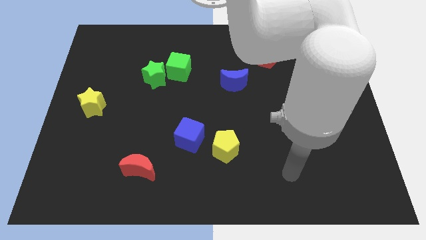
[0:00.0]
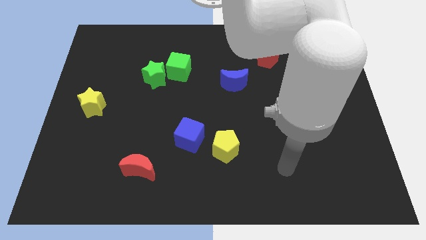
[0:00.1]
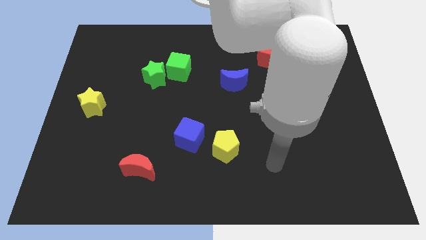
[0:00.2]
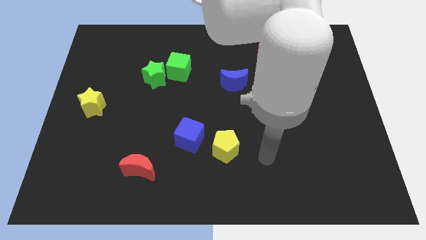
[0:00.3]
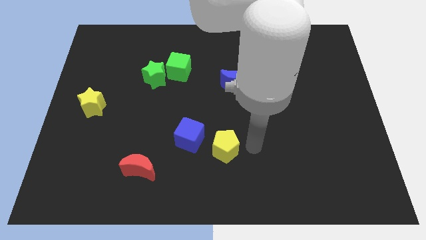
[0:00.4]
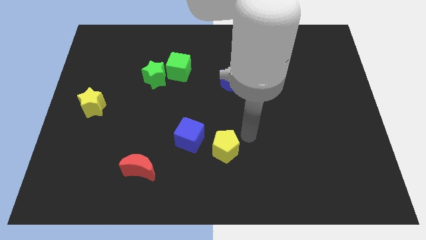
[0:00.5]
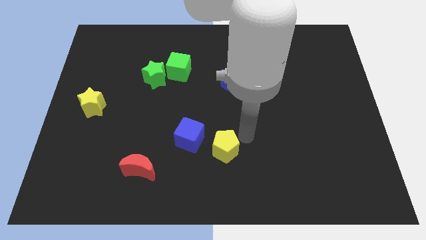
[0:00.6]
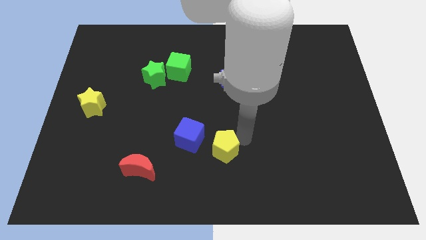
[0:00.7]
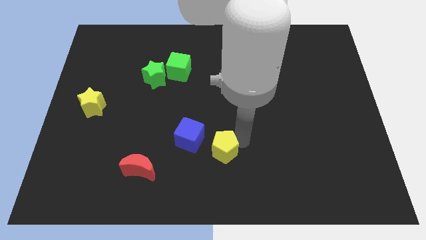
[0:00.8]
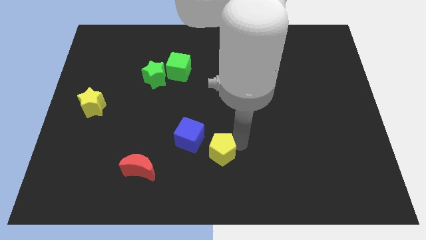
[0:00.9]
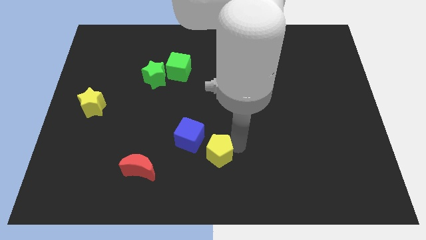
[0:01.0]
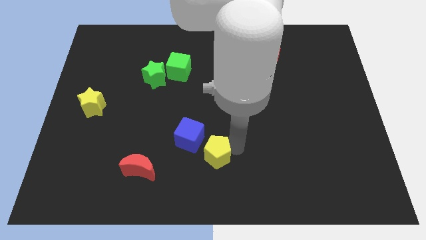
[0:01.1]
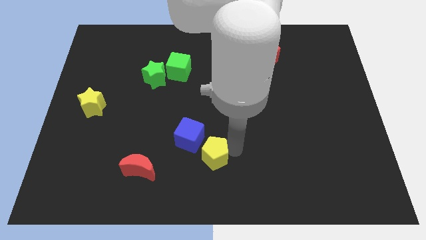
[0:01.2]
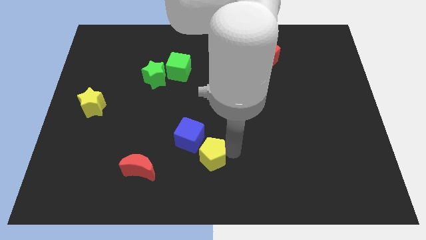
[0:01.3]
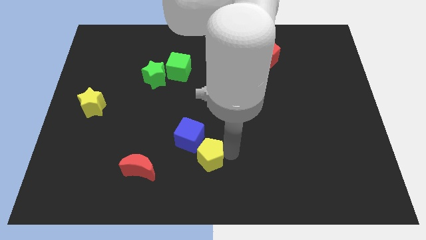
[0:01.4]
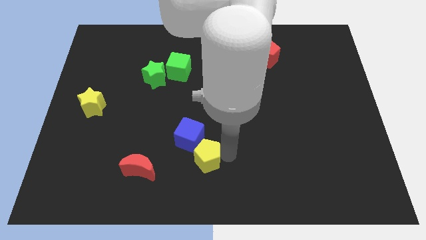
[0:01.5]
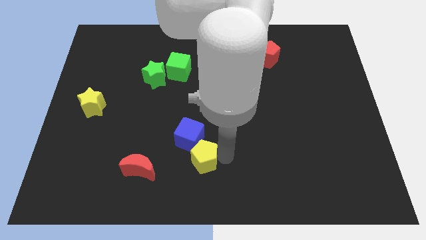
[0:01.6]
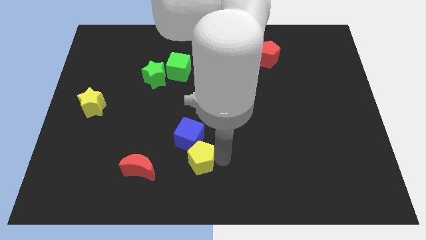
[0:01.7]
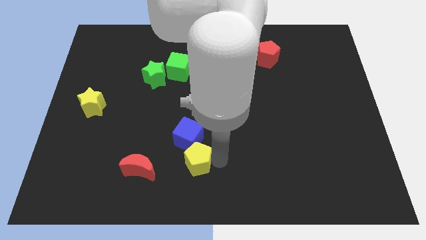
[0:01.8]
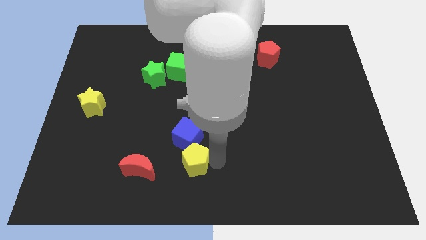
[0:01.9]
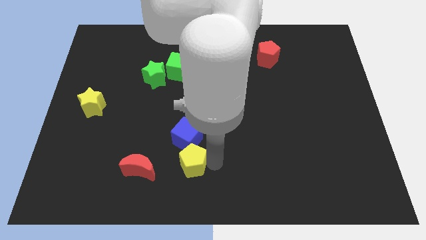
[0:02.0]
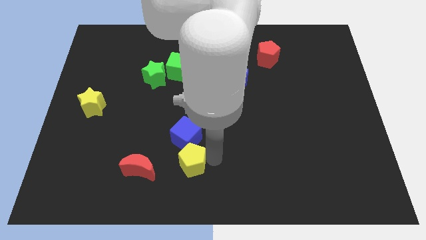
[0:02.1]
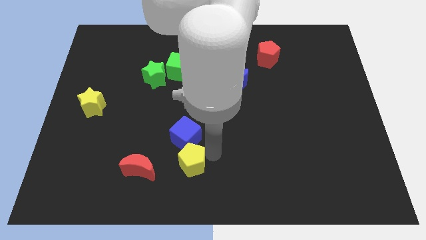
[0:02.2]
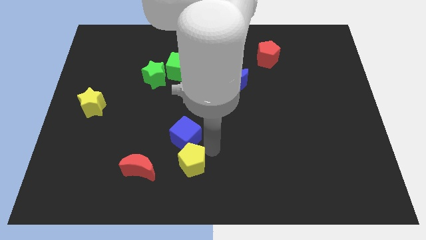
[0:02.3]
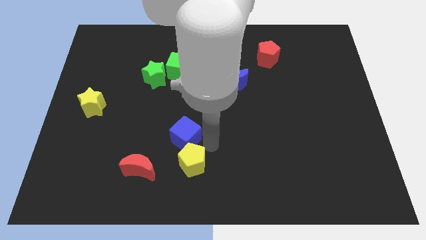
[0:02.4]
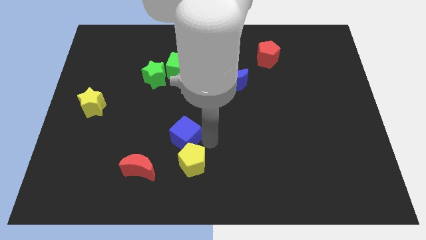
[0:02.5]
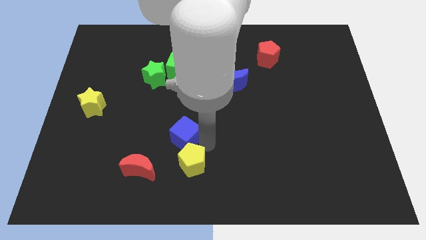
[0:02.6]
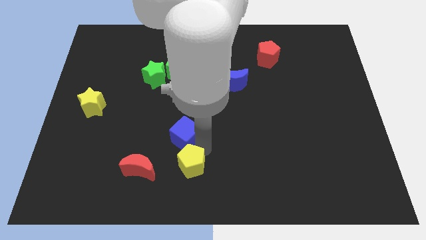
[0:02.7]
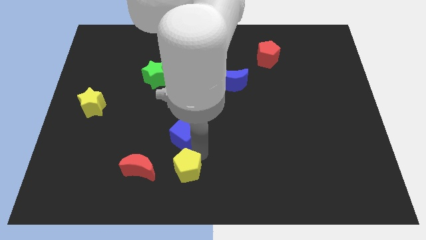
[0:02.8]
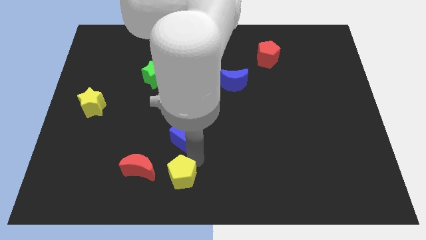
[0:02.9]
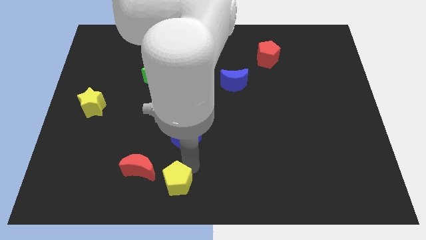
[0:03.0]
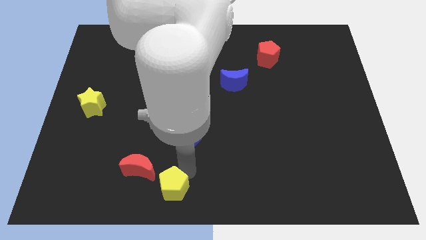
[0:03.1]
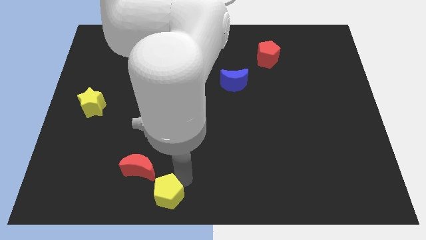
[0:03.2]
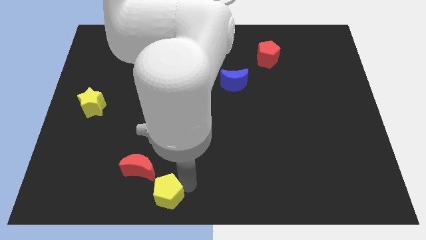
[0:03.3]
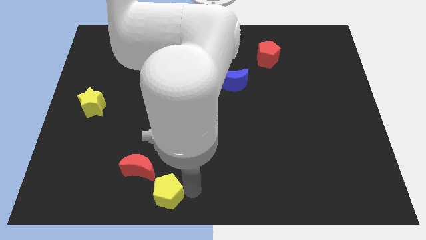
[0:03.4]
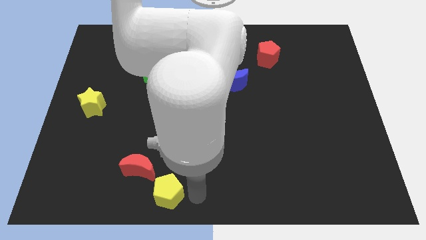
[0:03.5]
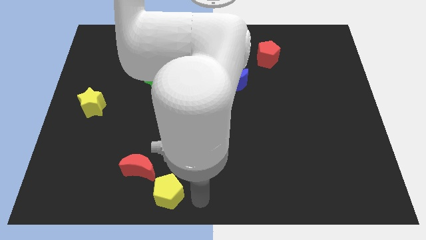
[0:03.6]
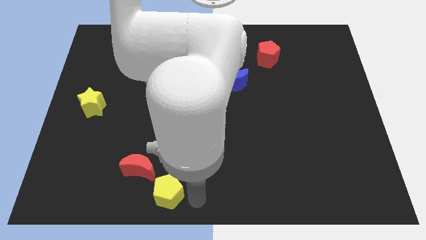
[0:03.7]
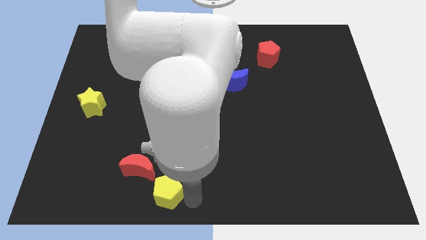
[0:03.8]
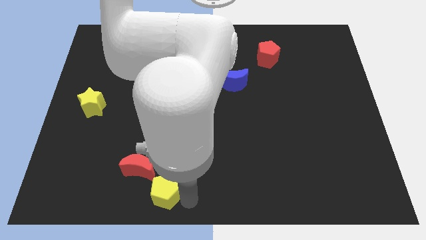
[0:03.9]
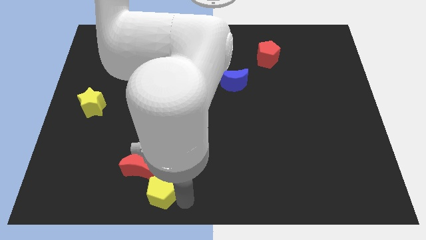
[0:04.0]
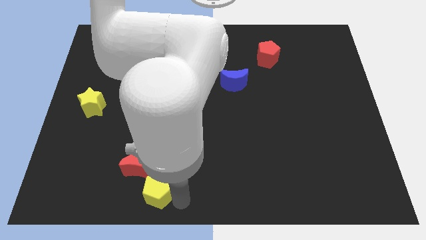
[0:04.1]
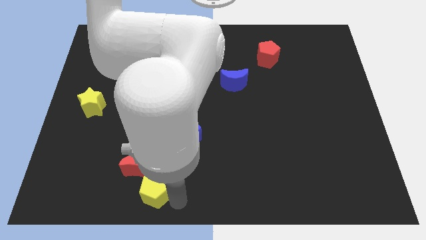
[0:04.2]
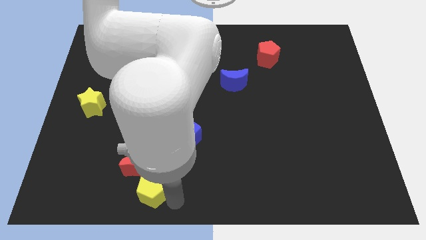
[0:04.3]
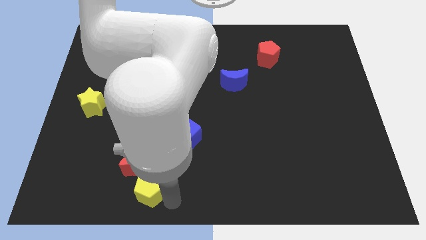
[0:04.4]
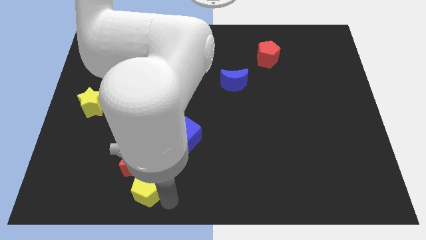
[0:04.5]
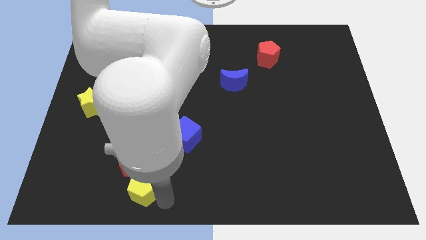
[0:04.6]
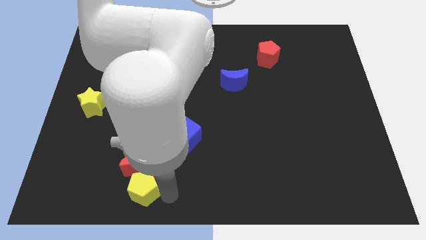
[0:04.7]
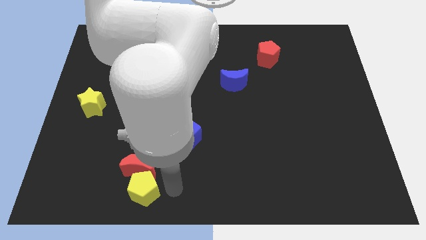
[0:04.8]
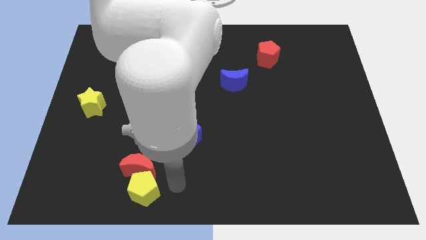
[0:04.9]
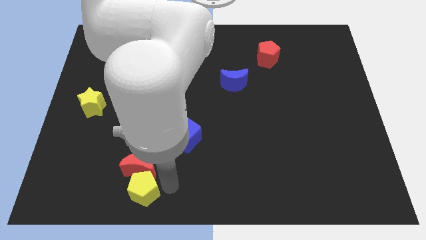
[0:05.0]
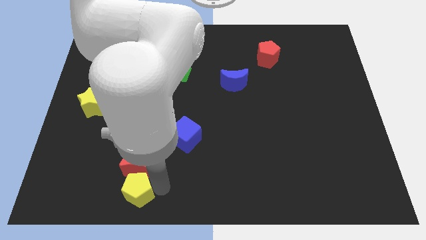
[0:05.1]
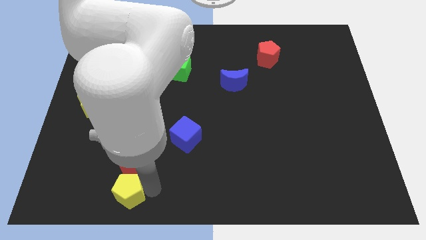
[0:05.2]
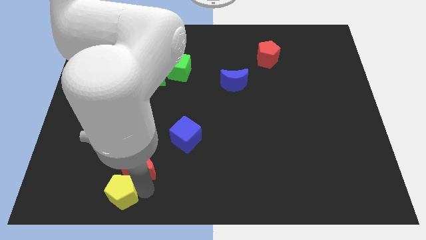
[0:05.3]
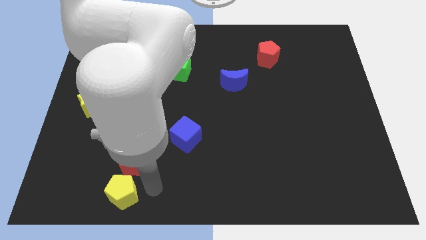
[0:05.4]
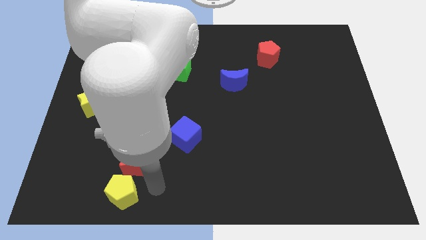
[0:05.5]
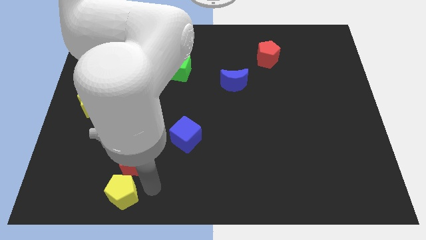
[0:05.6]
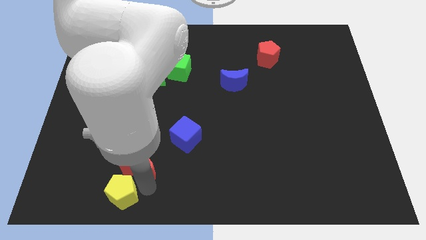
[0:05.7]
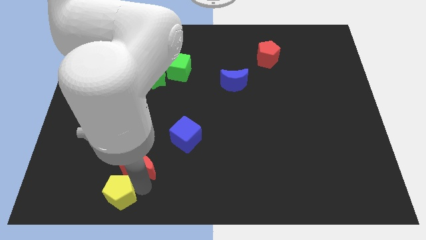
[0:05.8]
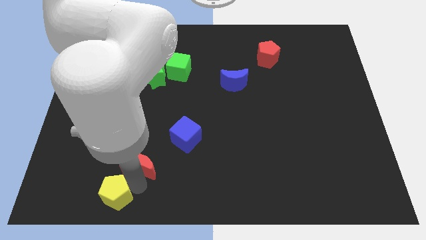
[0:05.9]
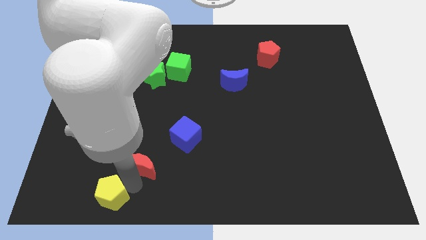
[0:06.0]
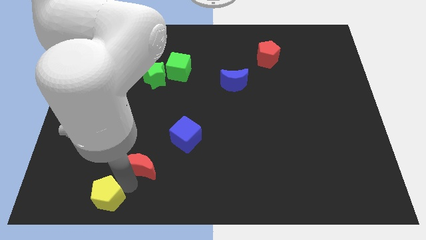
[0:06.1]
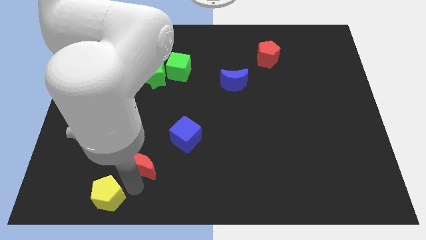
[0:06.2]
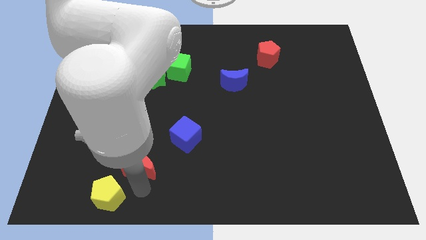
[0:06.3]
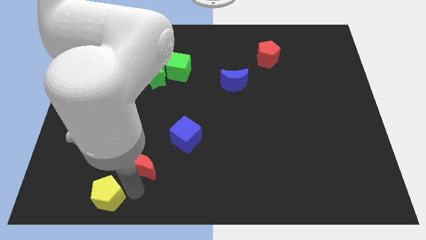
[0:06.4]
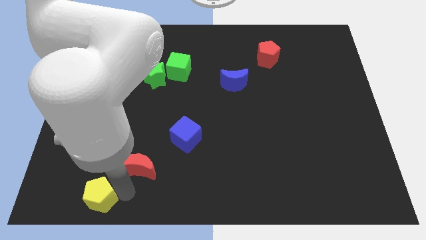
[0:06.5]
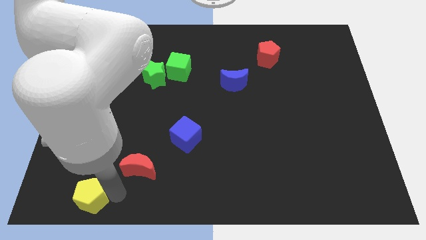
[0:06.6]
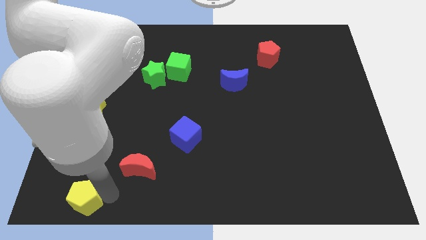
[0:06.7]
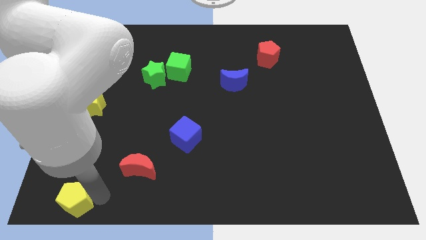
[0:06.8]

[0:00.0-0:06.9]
put the yellow pentagon to the bottom left of the board
